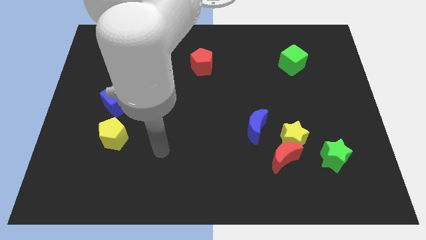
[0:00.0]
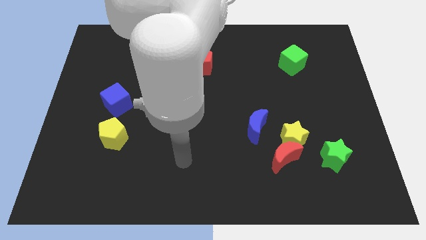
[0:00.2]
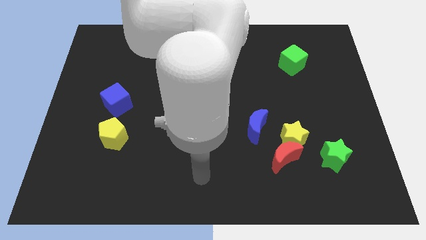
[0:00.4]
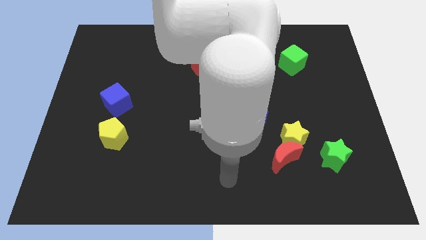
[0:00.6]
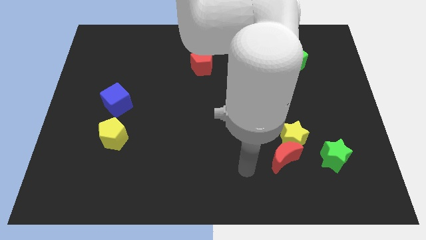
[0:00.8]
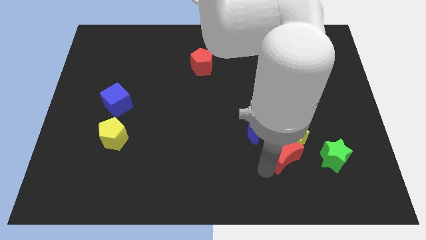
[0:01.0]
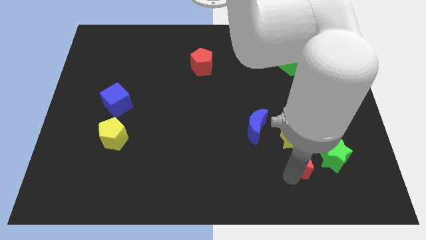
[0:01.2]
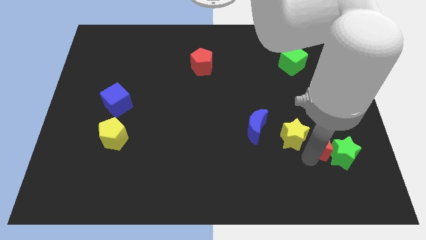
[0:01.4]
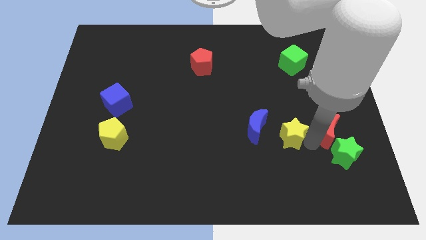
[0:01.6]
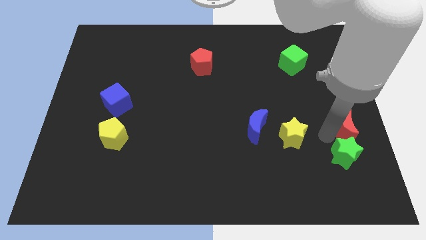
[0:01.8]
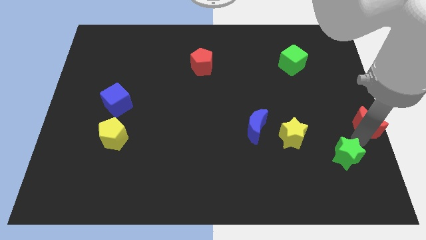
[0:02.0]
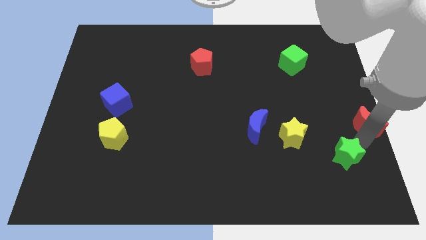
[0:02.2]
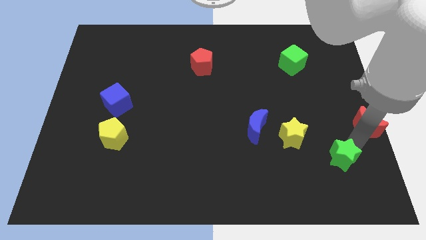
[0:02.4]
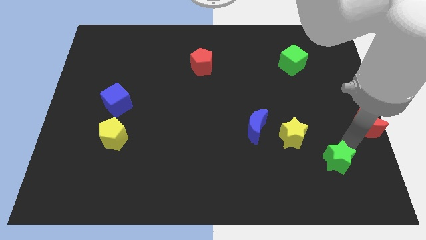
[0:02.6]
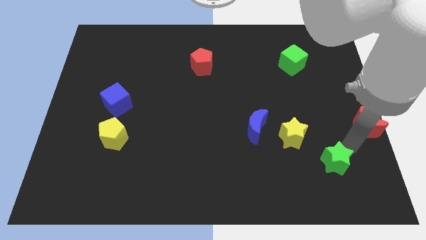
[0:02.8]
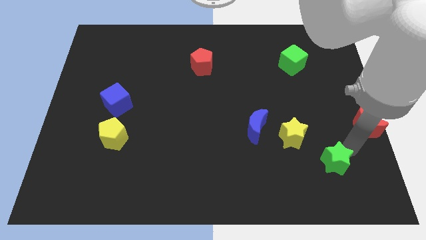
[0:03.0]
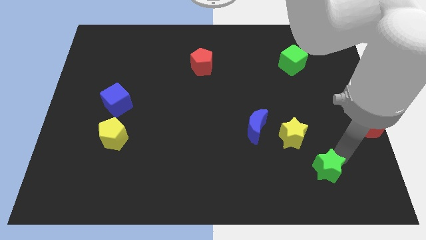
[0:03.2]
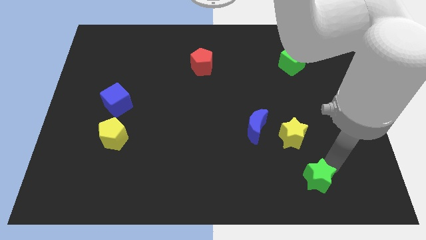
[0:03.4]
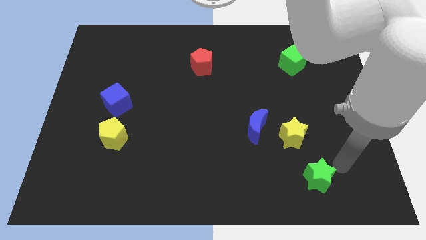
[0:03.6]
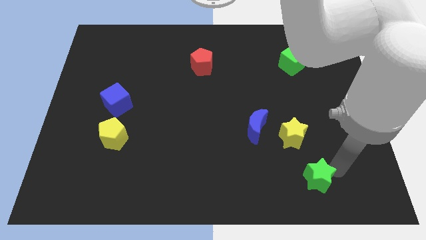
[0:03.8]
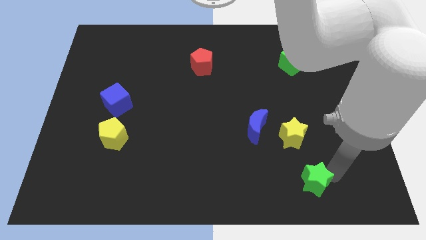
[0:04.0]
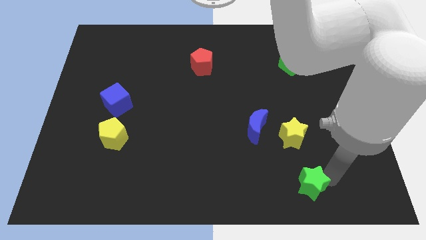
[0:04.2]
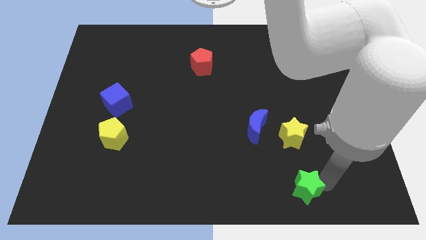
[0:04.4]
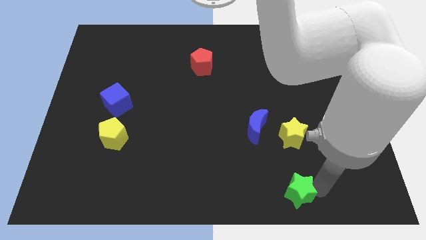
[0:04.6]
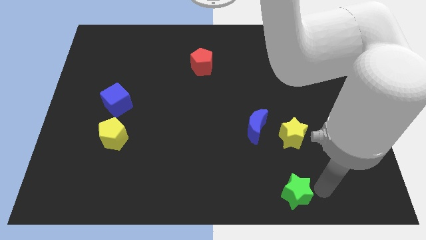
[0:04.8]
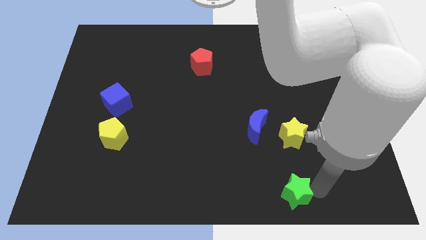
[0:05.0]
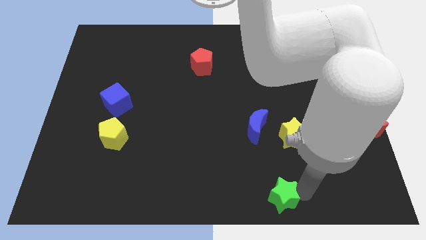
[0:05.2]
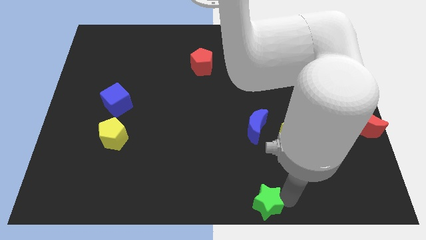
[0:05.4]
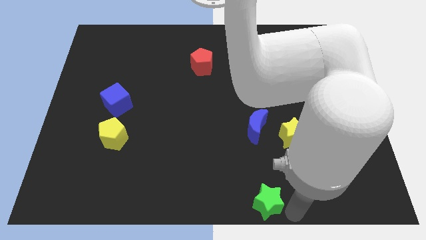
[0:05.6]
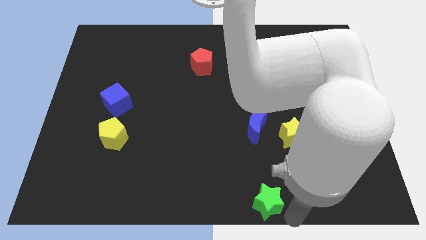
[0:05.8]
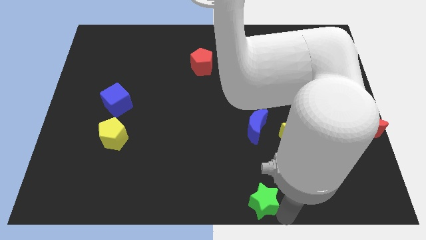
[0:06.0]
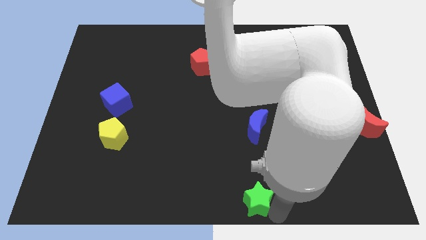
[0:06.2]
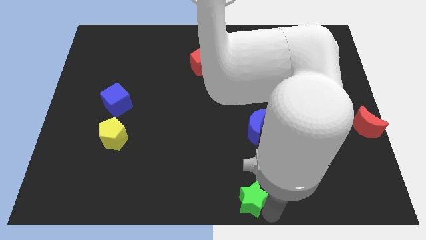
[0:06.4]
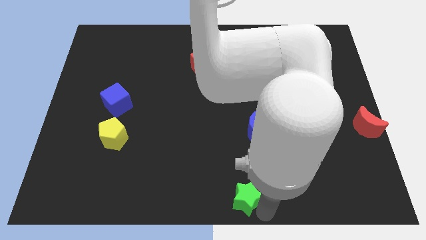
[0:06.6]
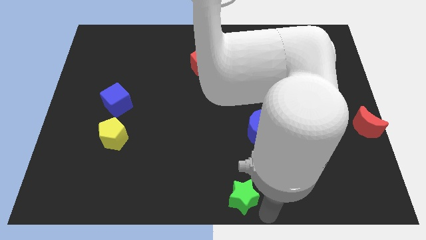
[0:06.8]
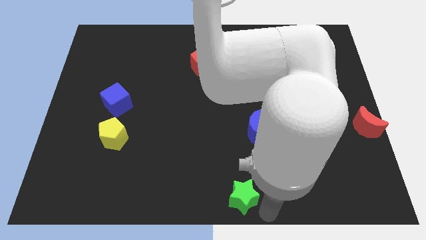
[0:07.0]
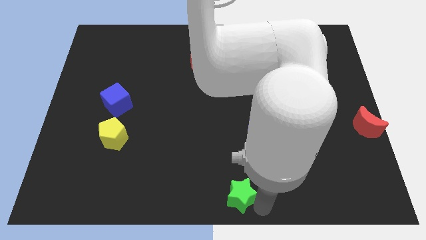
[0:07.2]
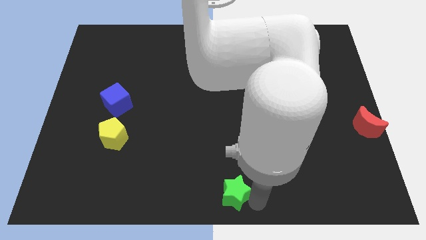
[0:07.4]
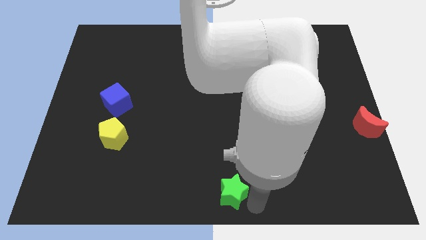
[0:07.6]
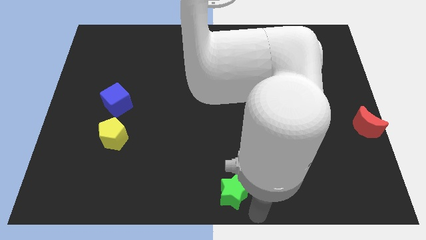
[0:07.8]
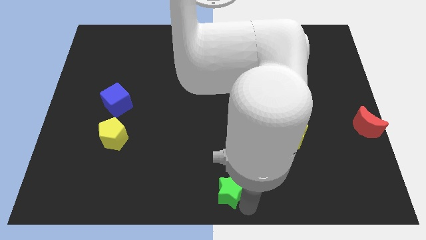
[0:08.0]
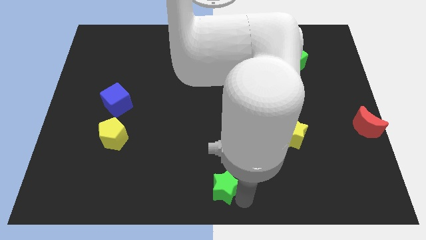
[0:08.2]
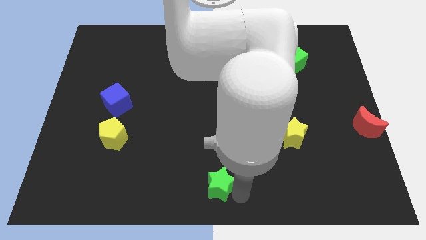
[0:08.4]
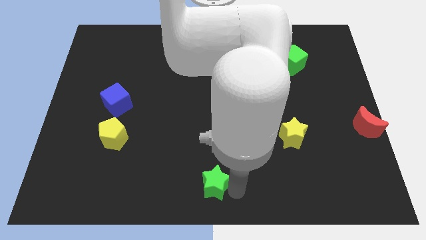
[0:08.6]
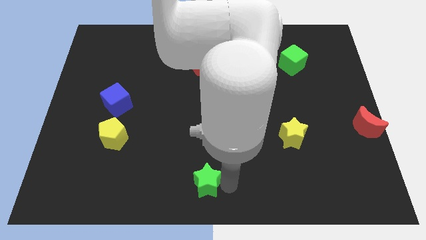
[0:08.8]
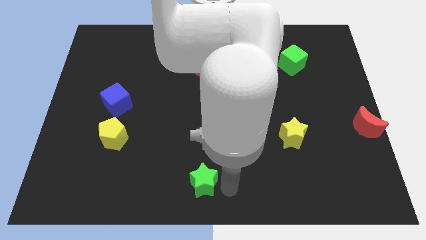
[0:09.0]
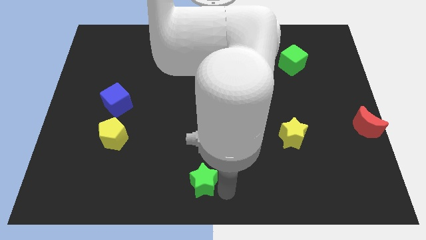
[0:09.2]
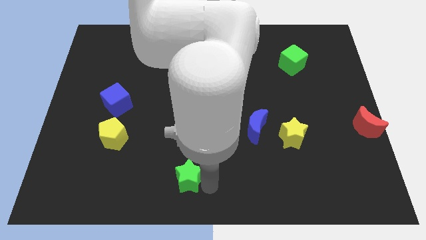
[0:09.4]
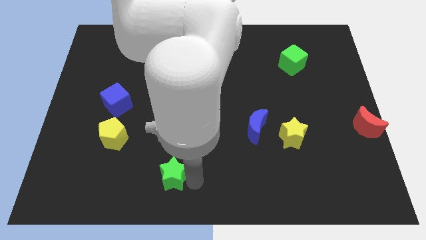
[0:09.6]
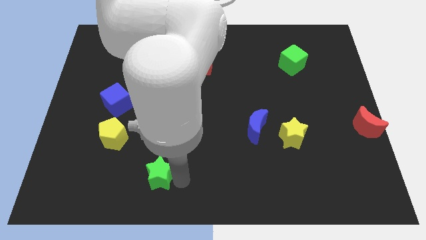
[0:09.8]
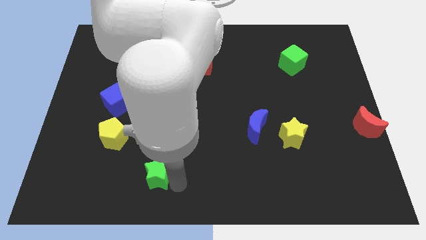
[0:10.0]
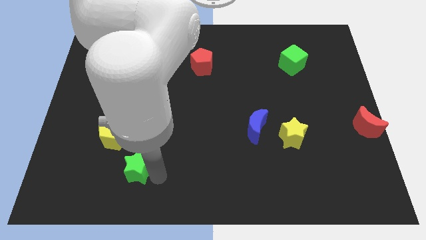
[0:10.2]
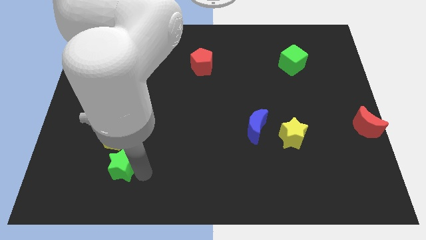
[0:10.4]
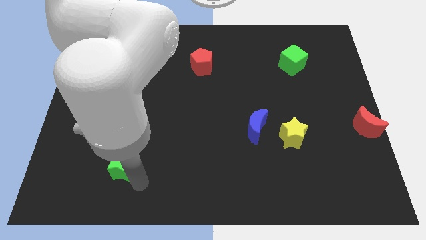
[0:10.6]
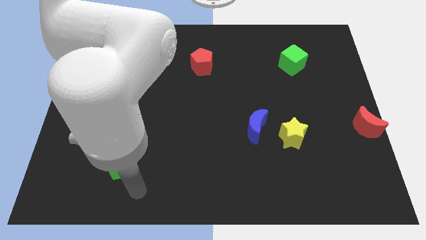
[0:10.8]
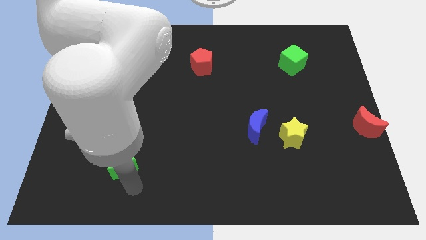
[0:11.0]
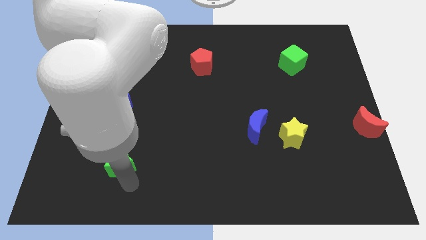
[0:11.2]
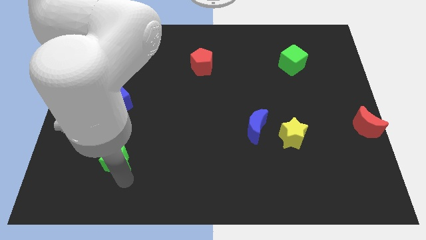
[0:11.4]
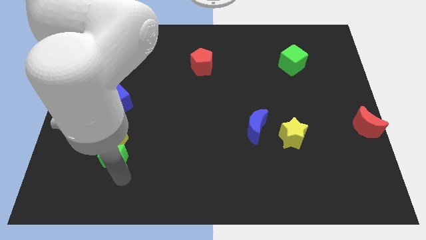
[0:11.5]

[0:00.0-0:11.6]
slide the green star to the bottom of the blue cube

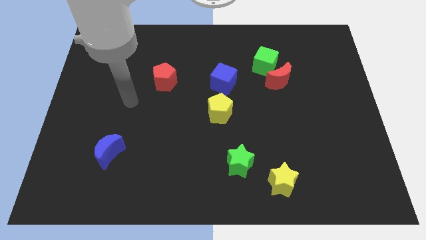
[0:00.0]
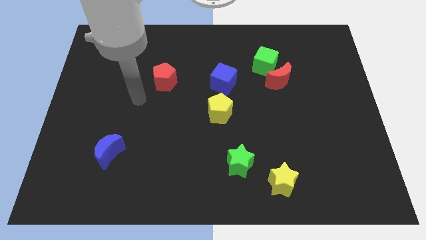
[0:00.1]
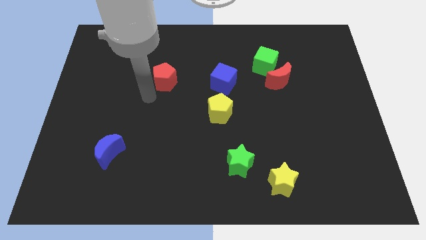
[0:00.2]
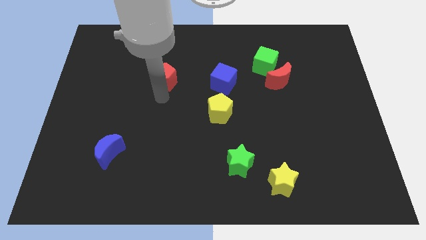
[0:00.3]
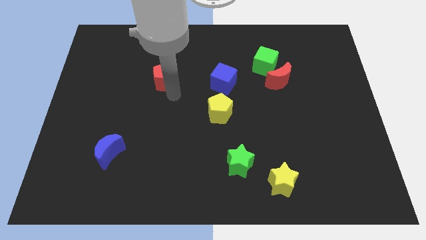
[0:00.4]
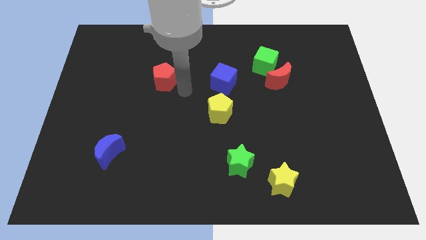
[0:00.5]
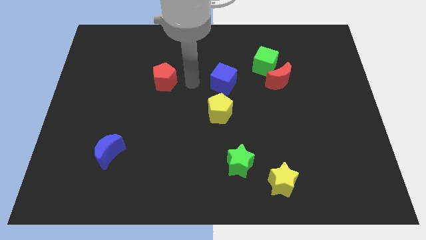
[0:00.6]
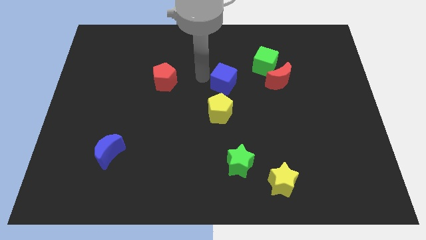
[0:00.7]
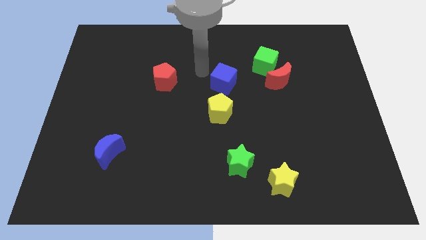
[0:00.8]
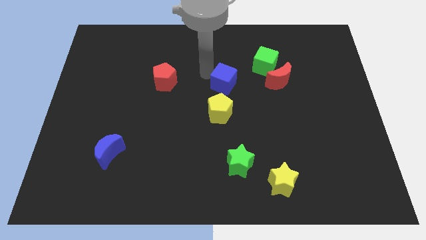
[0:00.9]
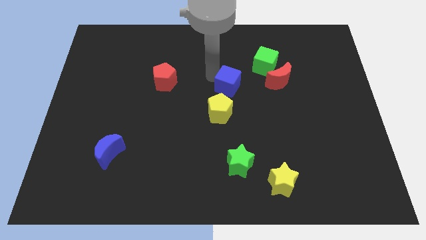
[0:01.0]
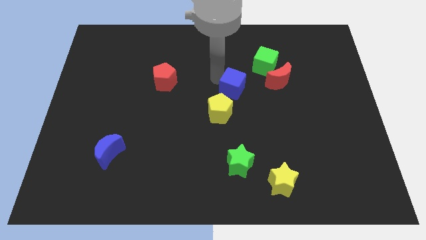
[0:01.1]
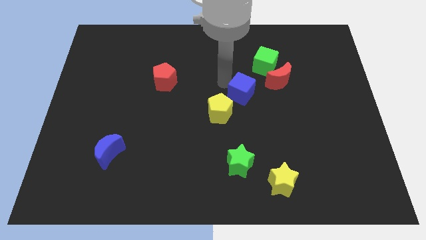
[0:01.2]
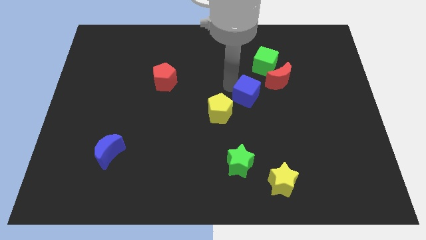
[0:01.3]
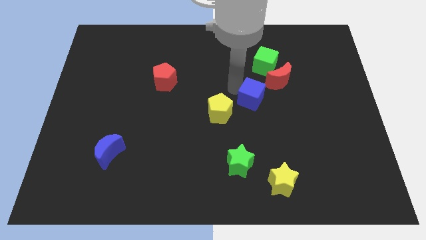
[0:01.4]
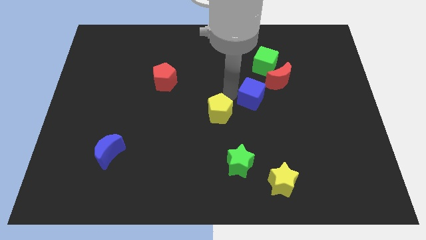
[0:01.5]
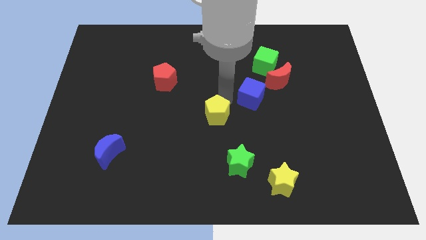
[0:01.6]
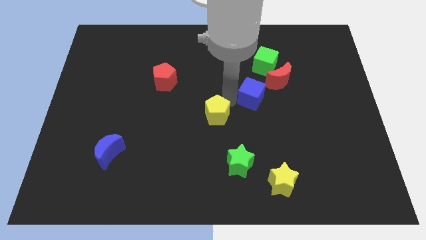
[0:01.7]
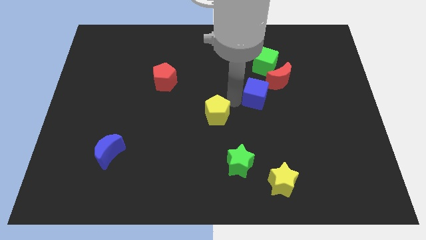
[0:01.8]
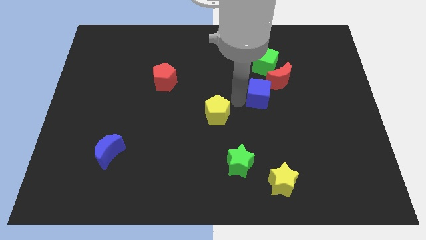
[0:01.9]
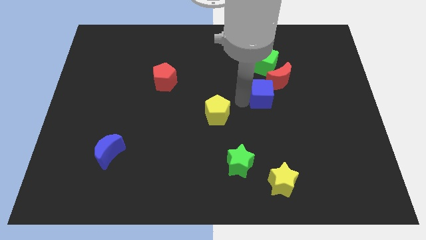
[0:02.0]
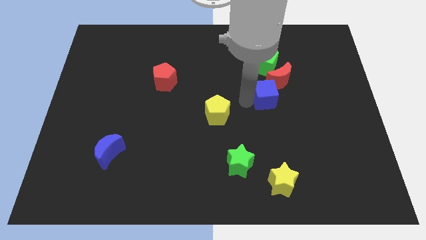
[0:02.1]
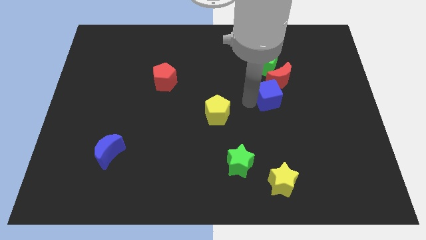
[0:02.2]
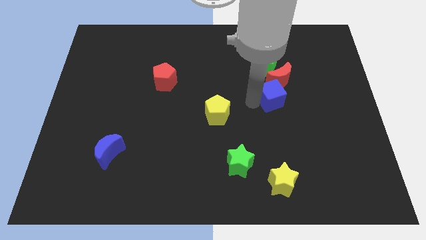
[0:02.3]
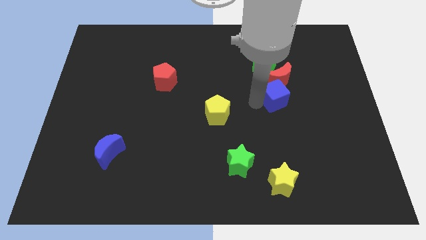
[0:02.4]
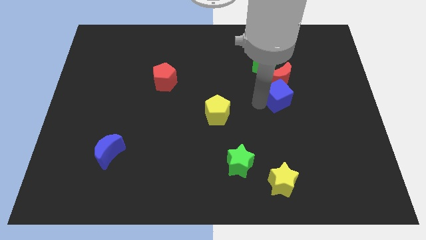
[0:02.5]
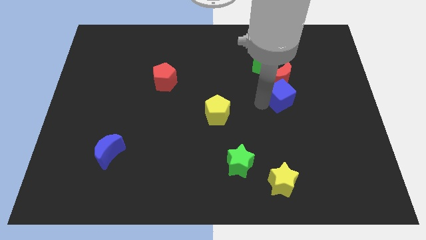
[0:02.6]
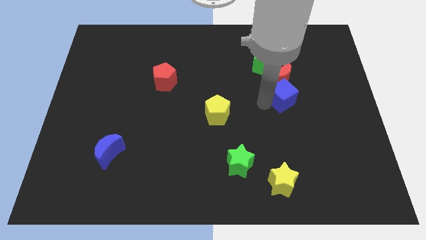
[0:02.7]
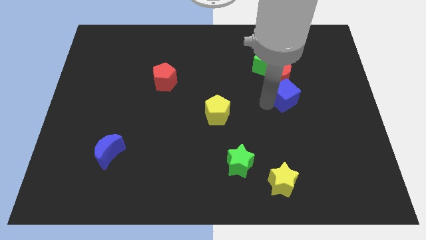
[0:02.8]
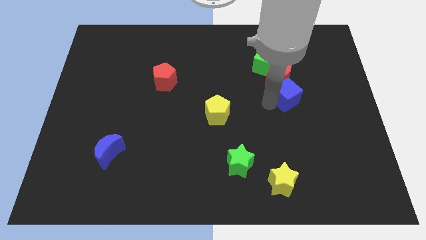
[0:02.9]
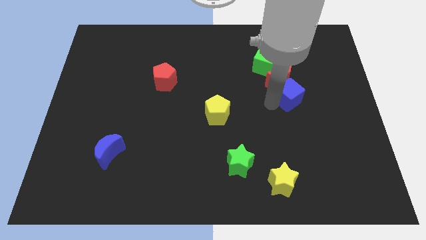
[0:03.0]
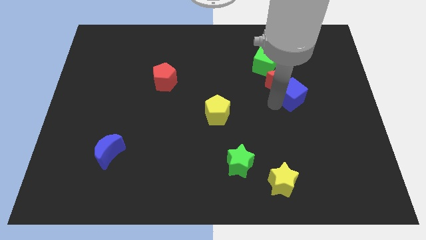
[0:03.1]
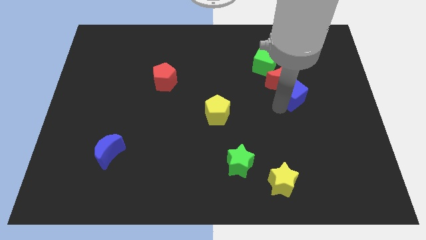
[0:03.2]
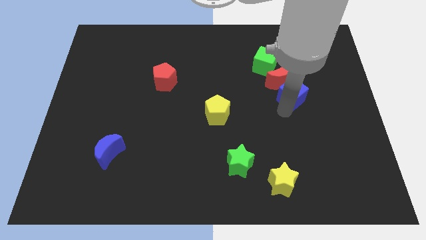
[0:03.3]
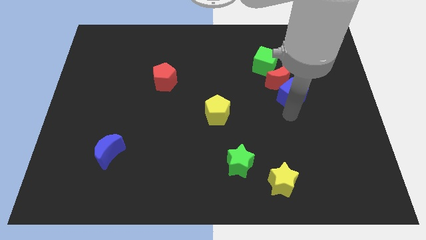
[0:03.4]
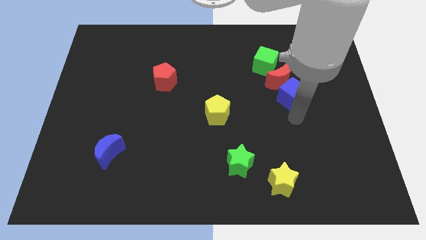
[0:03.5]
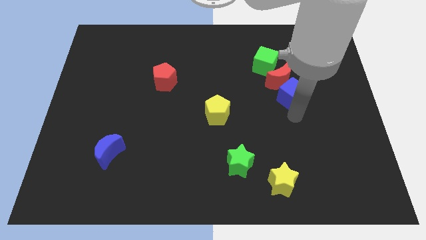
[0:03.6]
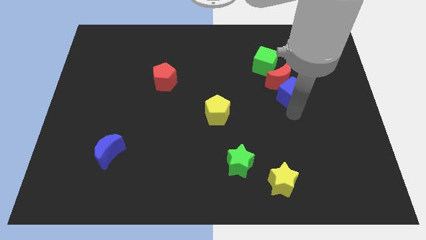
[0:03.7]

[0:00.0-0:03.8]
put the blue cube to the bottom right of the green cube
